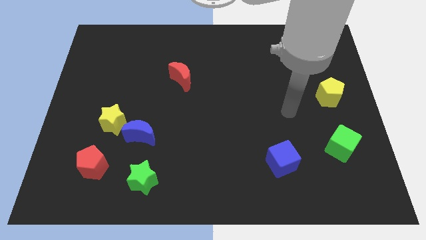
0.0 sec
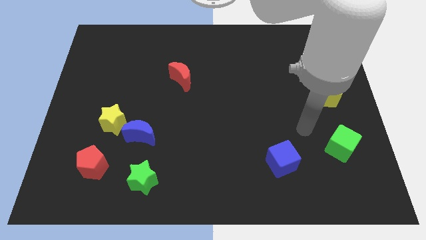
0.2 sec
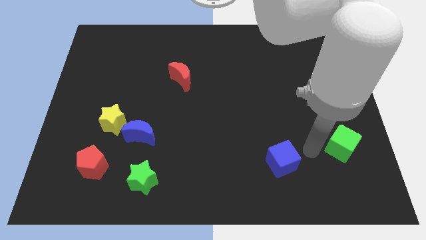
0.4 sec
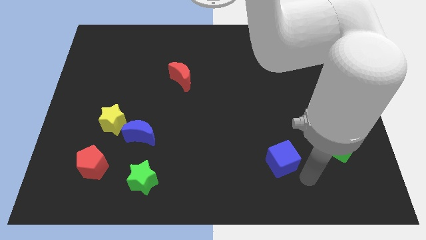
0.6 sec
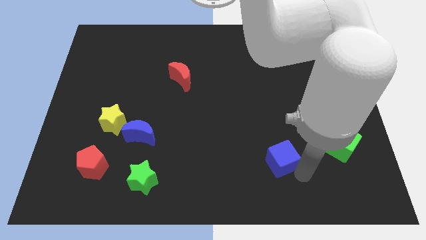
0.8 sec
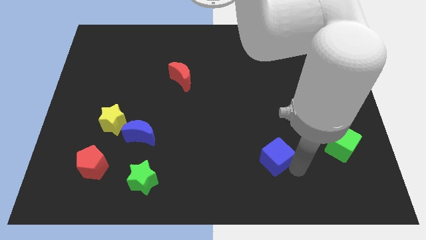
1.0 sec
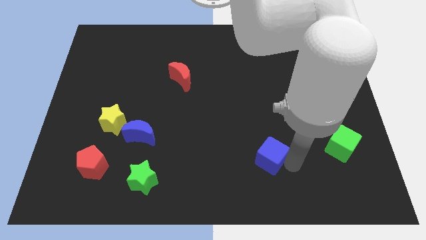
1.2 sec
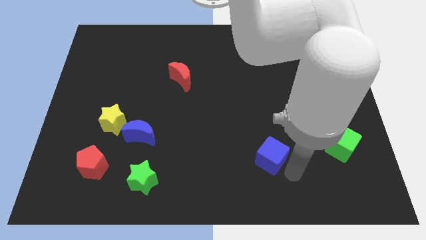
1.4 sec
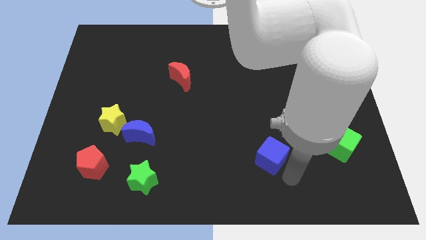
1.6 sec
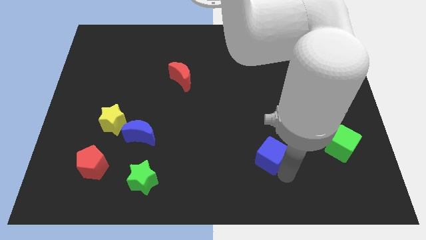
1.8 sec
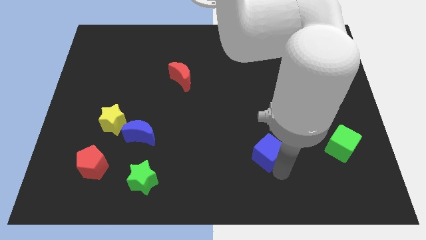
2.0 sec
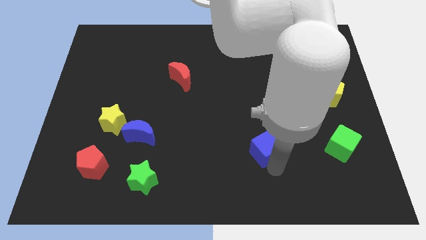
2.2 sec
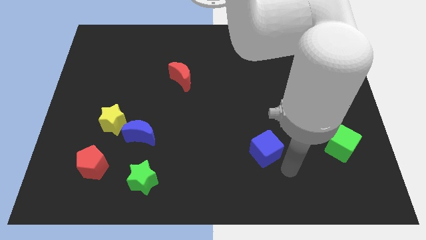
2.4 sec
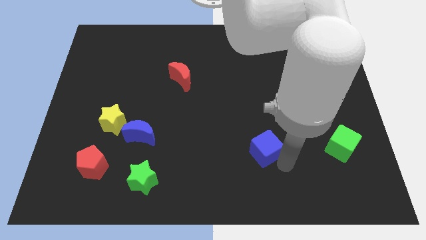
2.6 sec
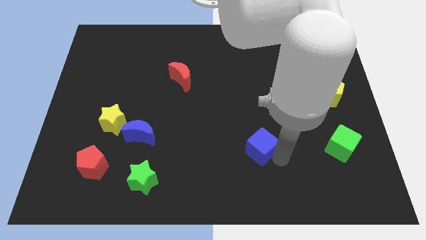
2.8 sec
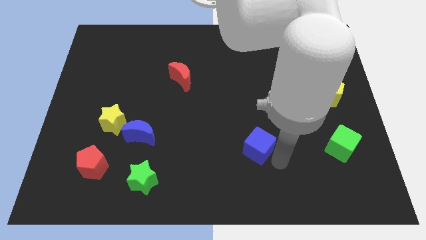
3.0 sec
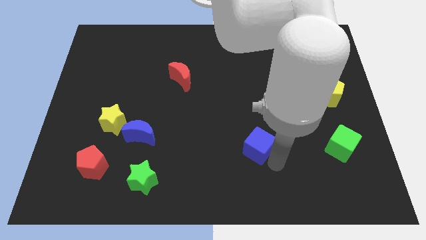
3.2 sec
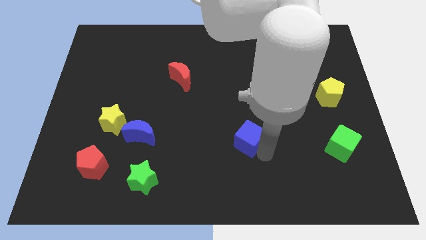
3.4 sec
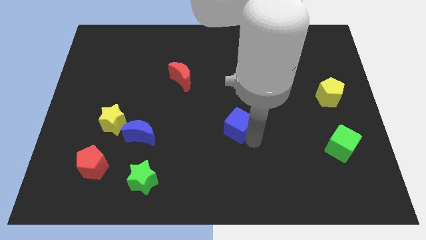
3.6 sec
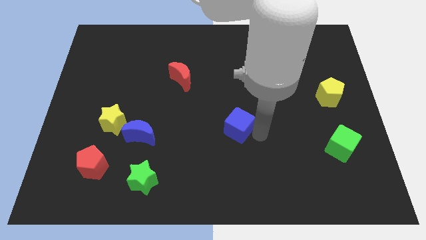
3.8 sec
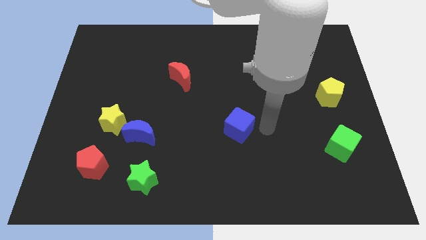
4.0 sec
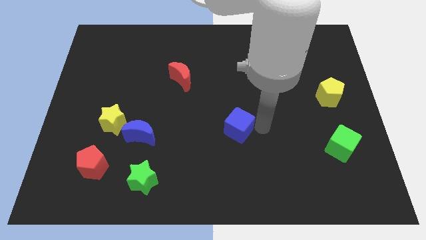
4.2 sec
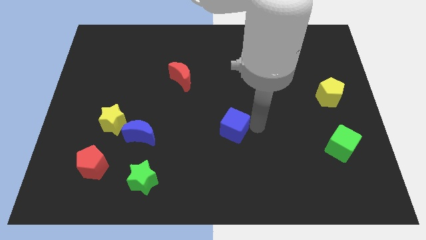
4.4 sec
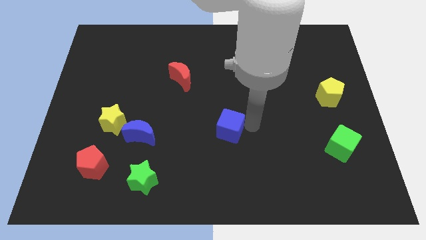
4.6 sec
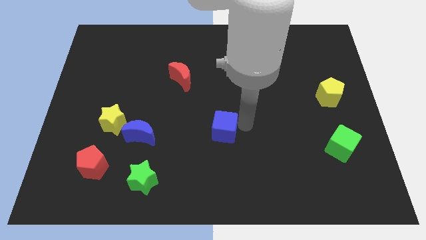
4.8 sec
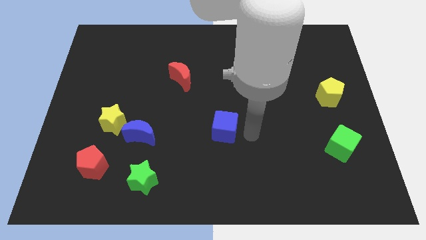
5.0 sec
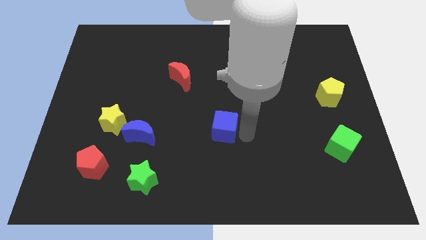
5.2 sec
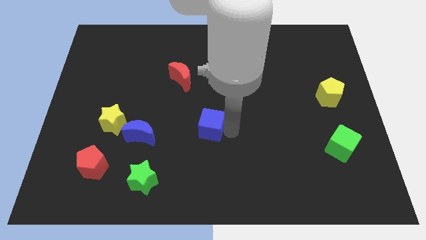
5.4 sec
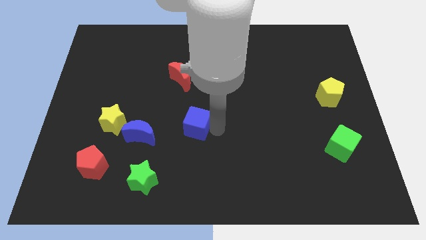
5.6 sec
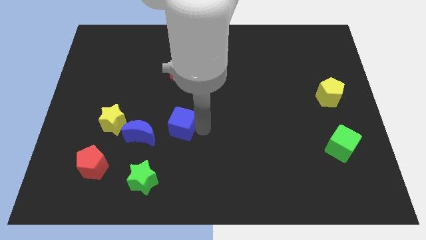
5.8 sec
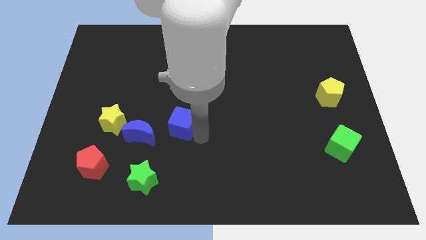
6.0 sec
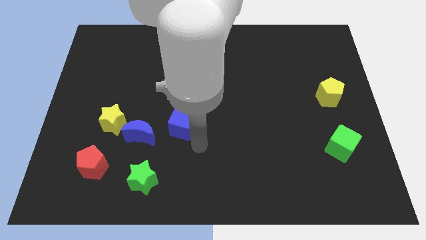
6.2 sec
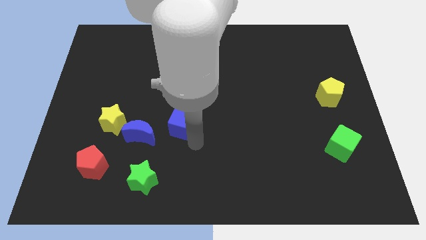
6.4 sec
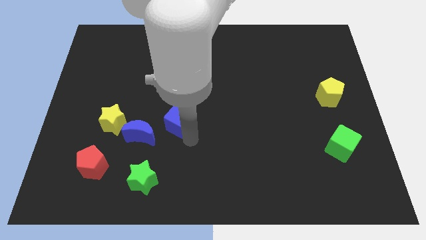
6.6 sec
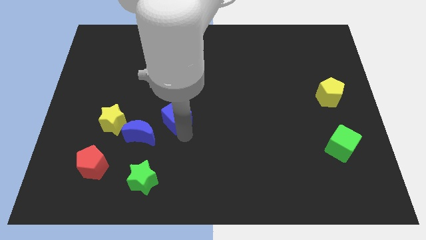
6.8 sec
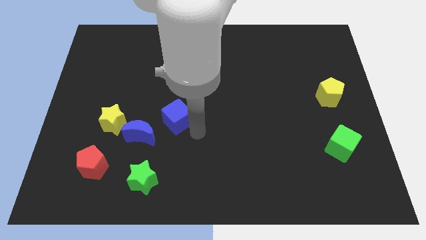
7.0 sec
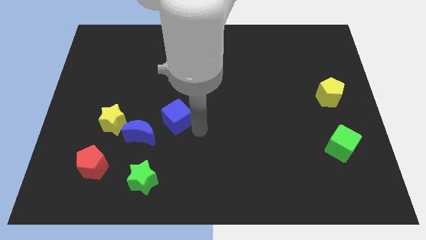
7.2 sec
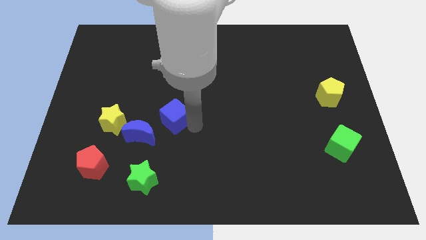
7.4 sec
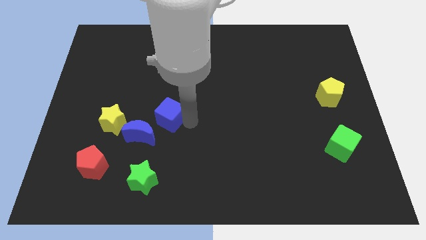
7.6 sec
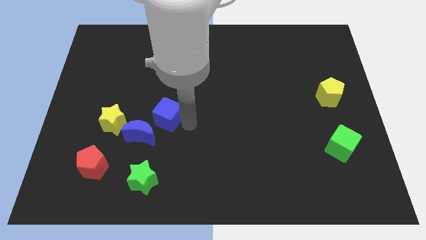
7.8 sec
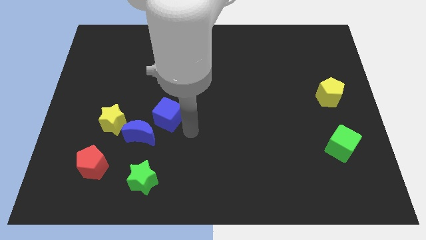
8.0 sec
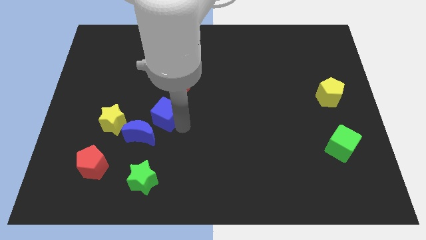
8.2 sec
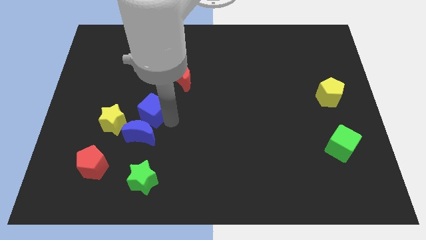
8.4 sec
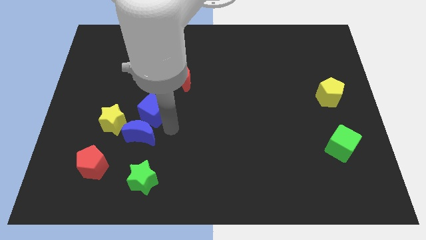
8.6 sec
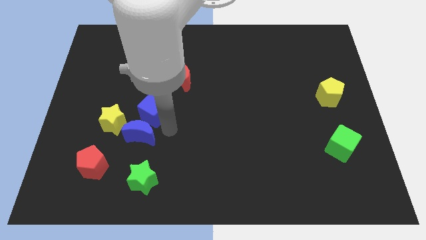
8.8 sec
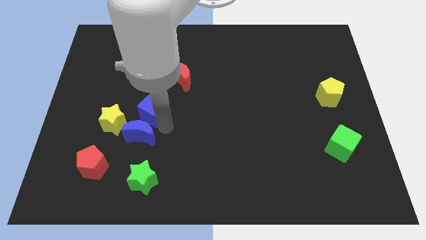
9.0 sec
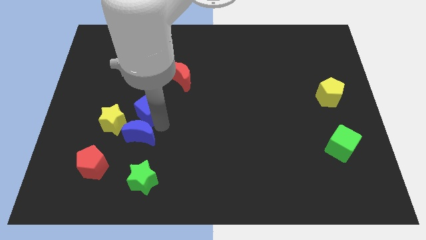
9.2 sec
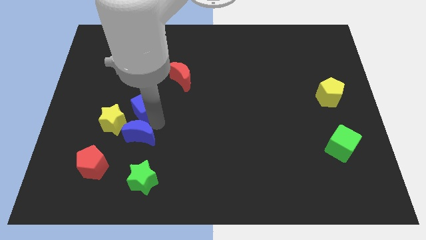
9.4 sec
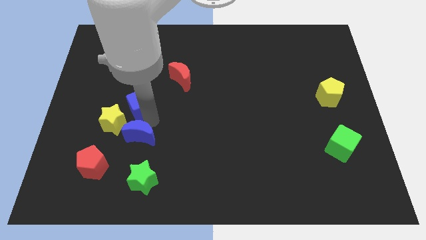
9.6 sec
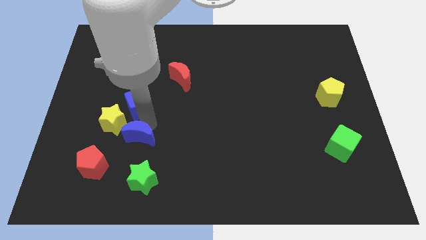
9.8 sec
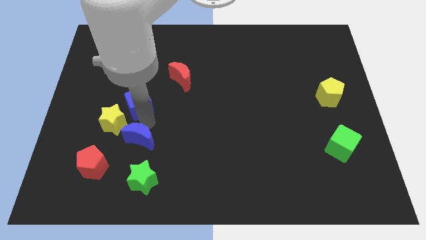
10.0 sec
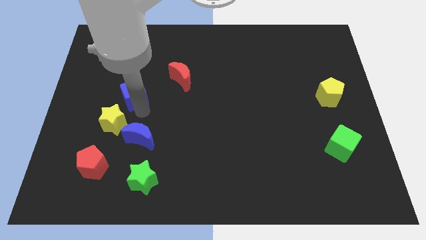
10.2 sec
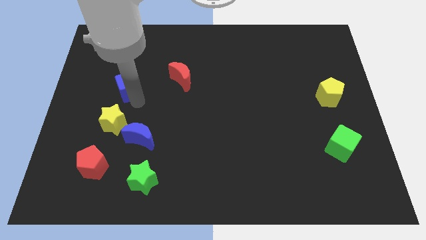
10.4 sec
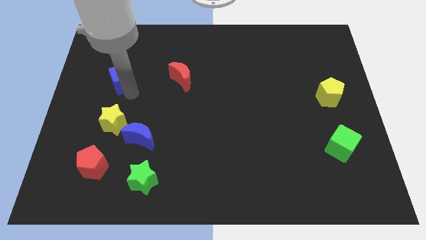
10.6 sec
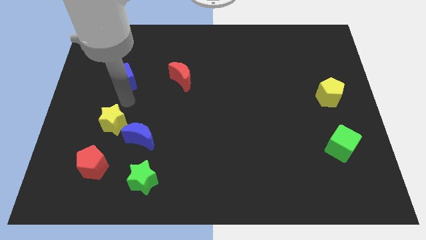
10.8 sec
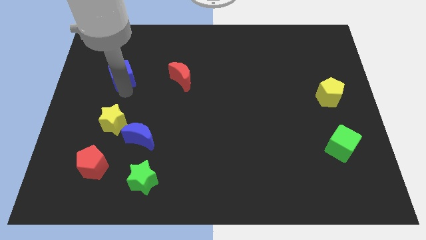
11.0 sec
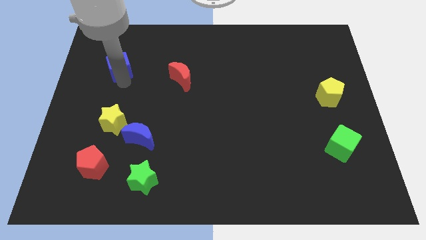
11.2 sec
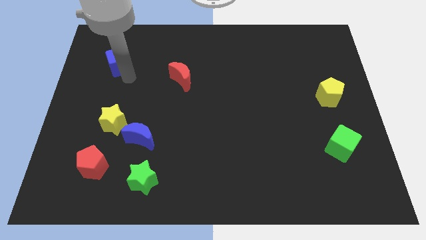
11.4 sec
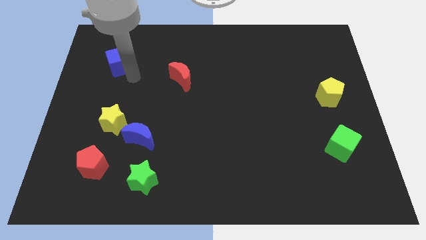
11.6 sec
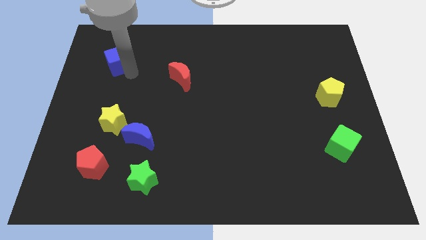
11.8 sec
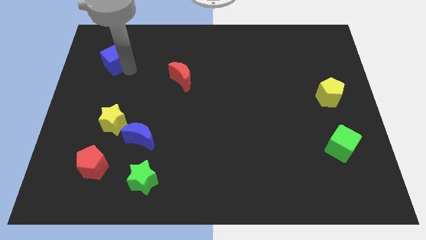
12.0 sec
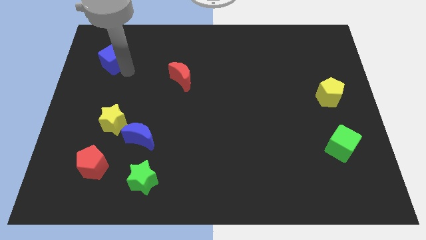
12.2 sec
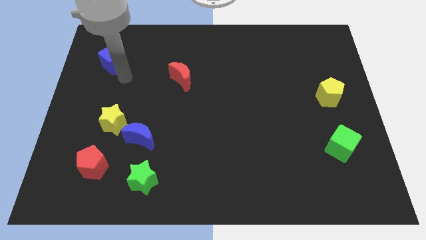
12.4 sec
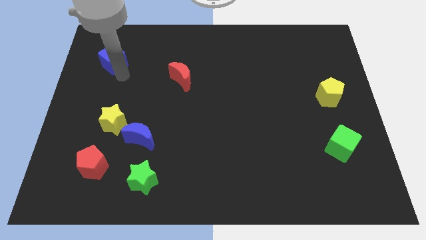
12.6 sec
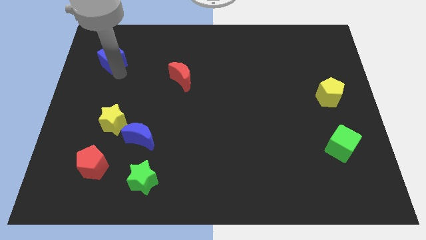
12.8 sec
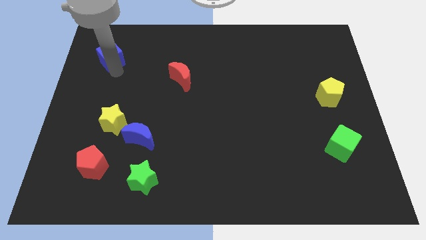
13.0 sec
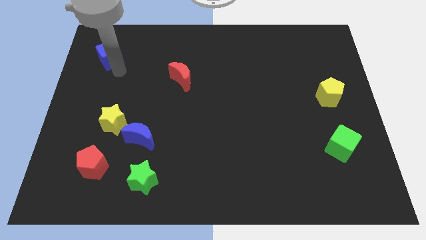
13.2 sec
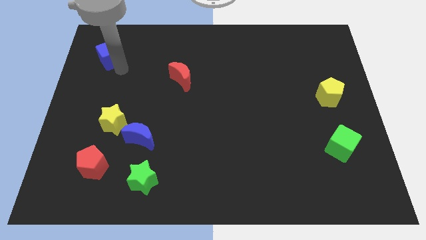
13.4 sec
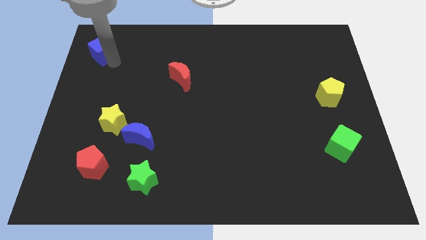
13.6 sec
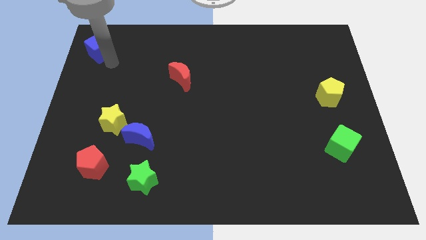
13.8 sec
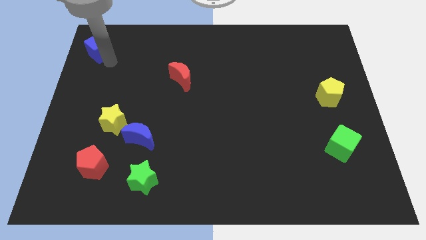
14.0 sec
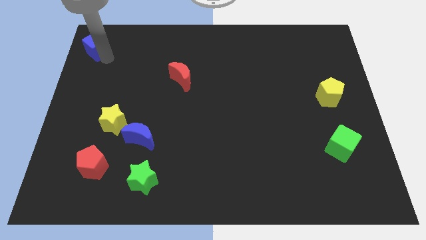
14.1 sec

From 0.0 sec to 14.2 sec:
push the blue cube to the top left corner
